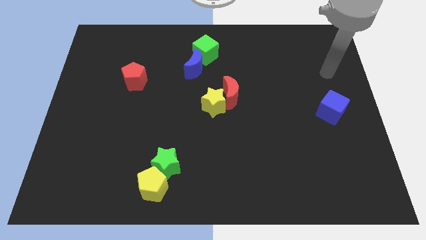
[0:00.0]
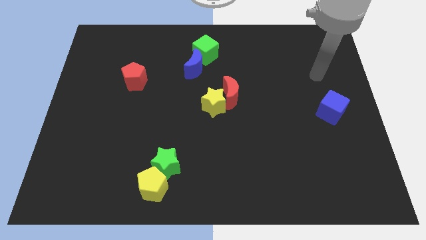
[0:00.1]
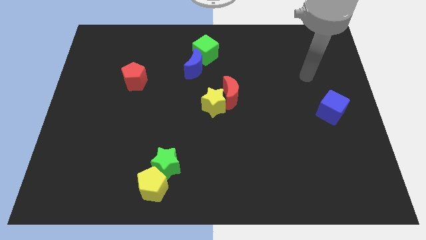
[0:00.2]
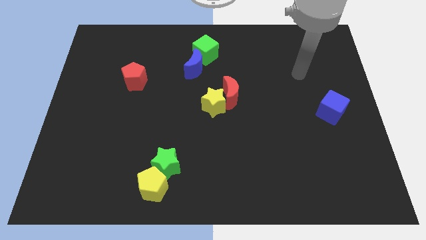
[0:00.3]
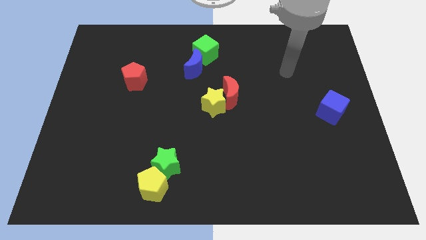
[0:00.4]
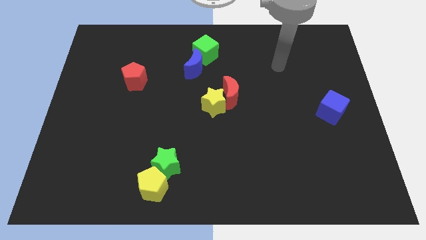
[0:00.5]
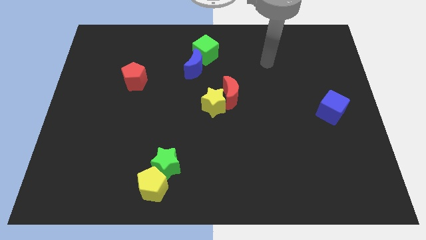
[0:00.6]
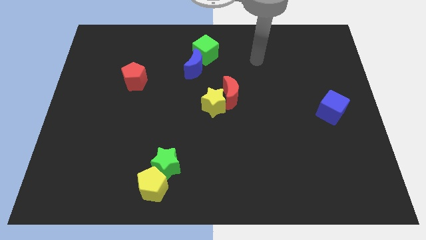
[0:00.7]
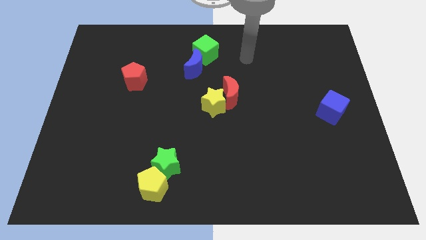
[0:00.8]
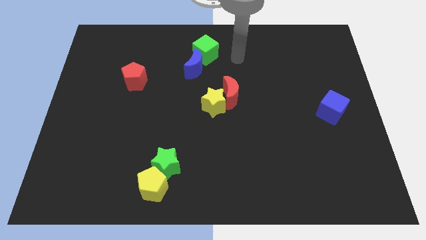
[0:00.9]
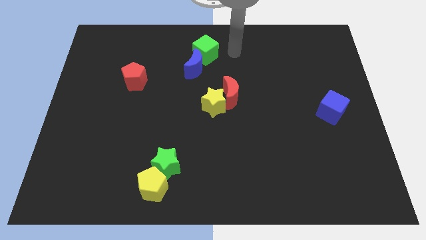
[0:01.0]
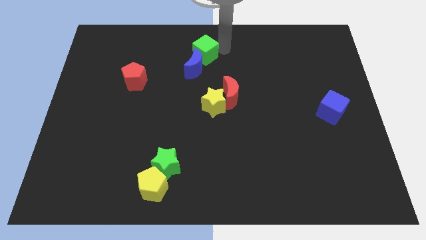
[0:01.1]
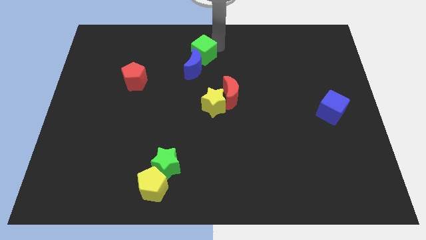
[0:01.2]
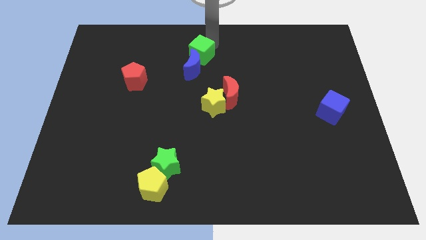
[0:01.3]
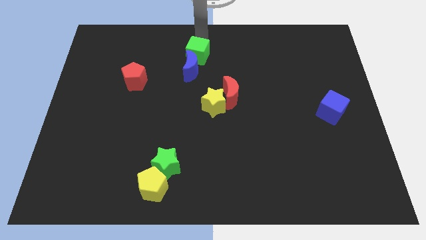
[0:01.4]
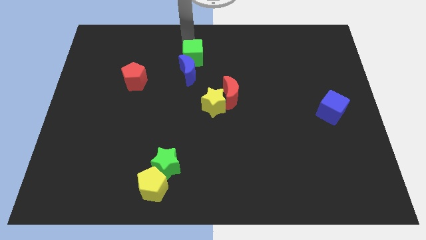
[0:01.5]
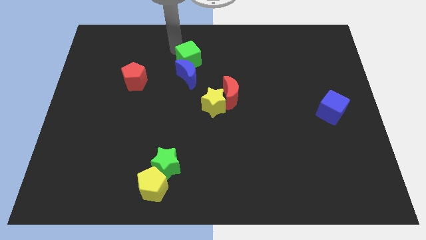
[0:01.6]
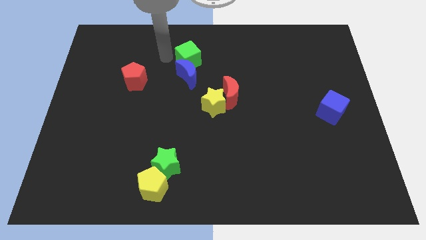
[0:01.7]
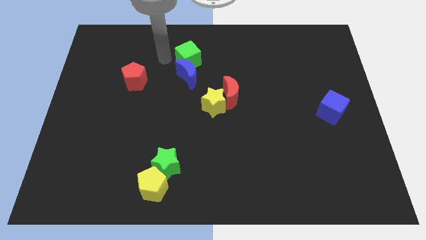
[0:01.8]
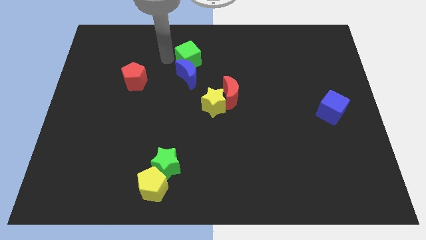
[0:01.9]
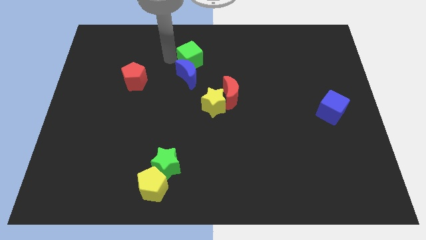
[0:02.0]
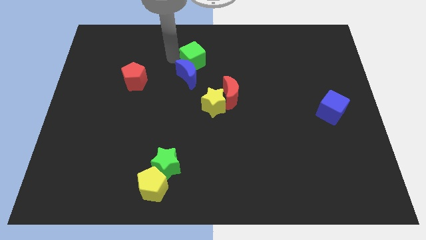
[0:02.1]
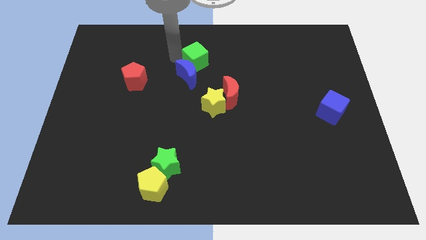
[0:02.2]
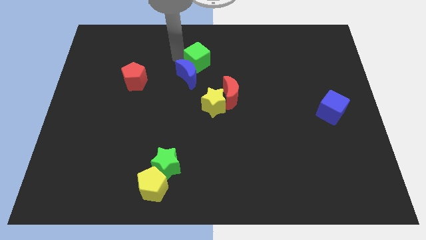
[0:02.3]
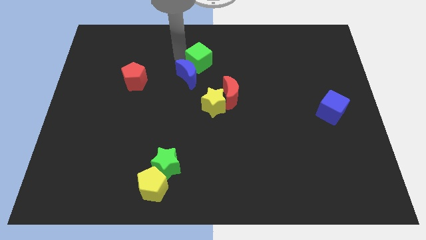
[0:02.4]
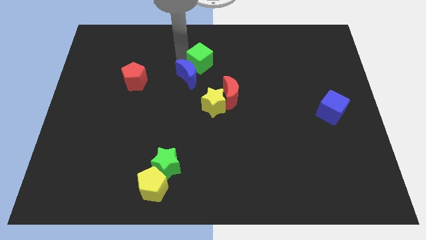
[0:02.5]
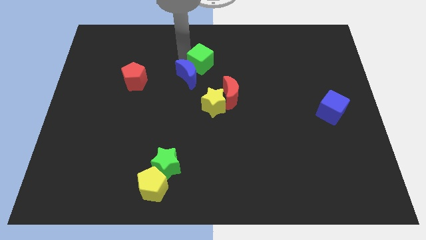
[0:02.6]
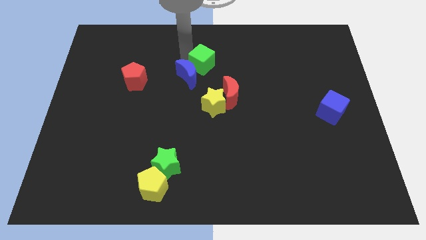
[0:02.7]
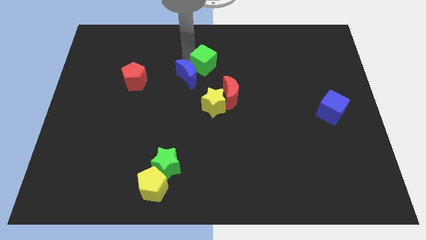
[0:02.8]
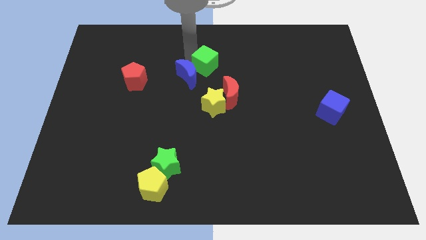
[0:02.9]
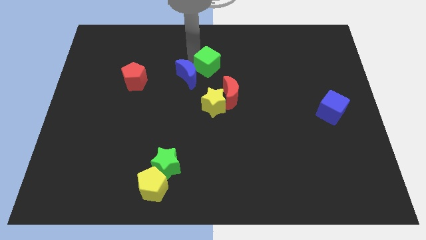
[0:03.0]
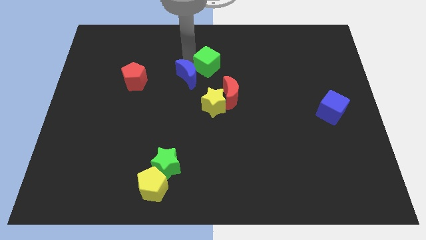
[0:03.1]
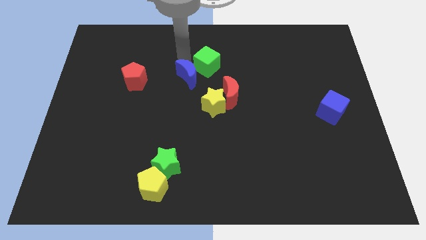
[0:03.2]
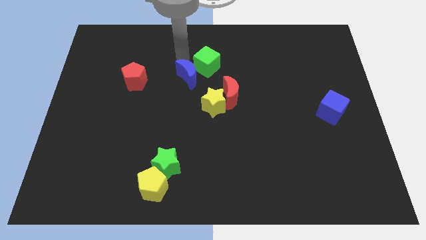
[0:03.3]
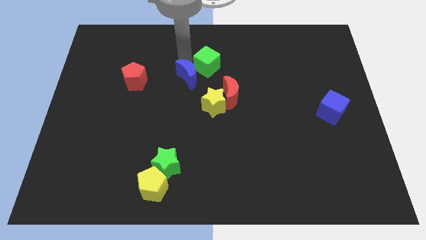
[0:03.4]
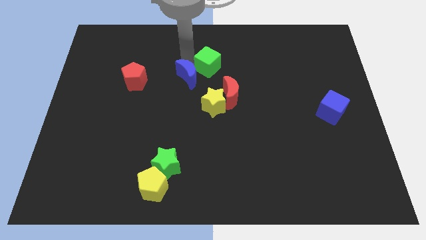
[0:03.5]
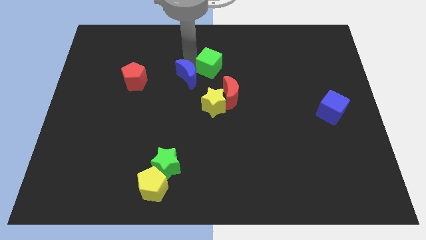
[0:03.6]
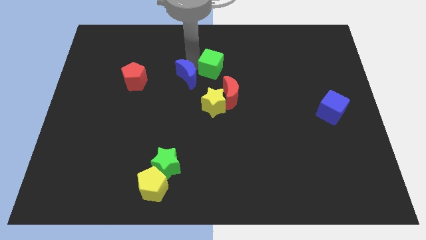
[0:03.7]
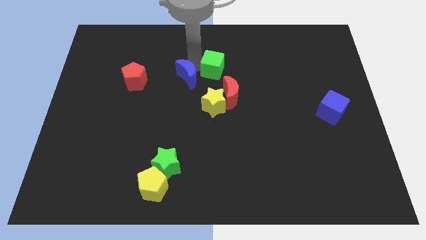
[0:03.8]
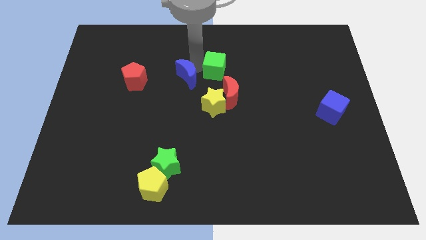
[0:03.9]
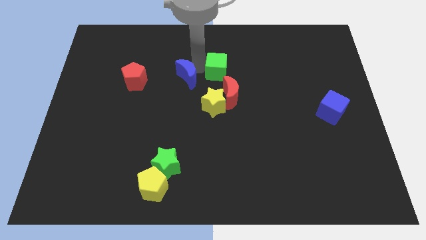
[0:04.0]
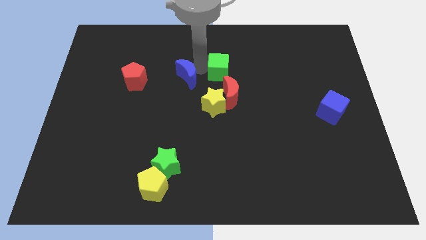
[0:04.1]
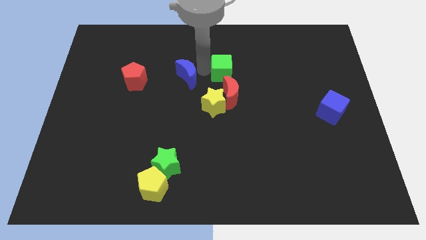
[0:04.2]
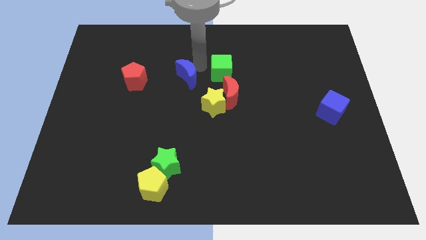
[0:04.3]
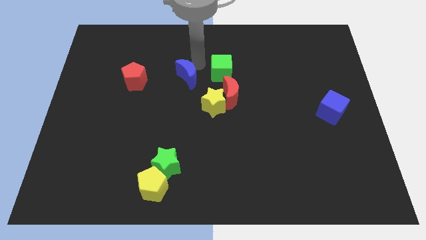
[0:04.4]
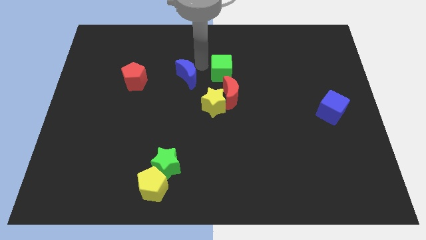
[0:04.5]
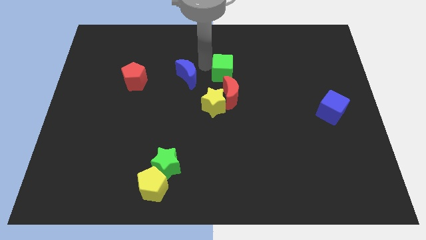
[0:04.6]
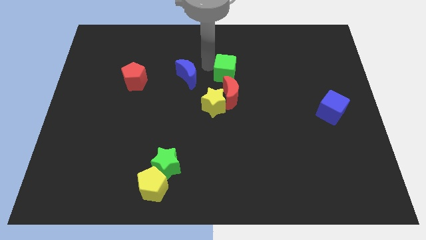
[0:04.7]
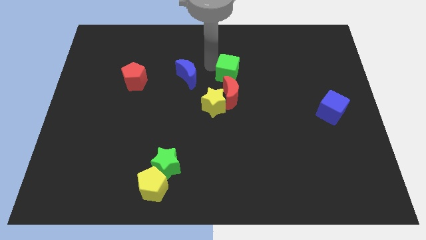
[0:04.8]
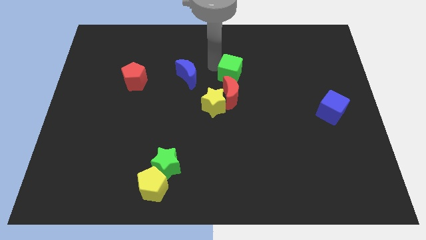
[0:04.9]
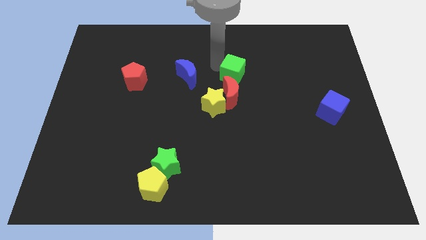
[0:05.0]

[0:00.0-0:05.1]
move the green cube diagonally up and to the right of the red moon

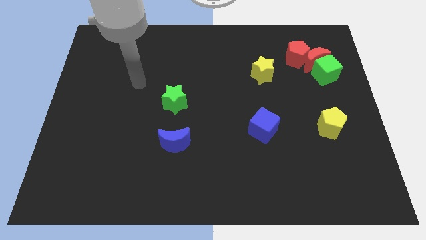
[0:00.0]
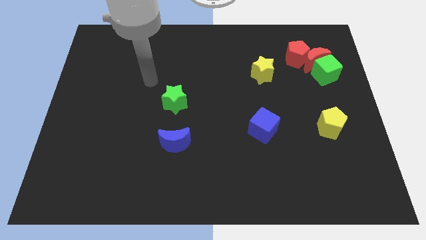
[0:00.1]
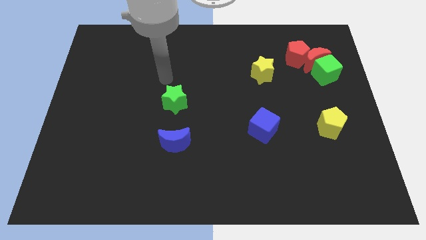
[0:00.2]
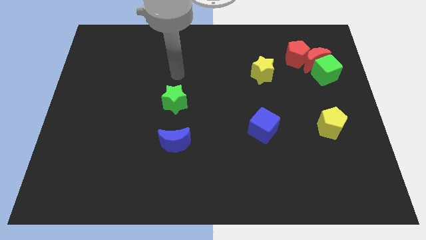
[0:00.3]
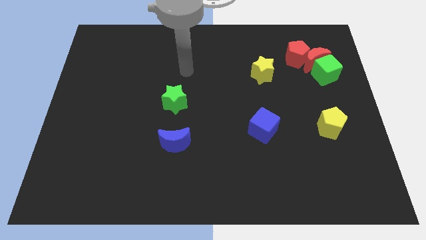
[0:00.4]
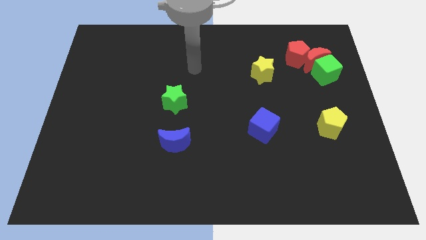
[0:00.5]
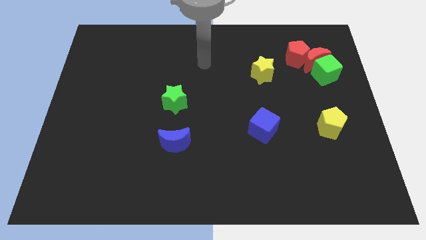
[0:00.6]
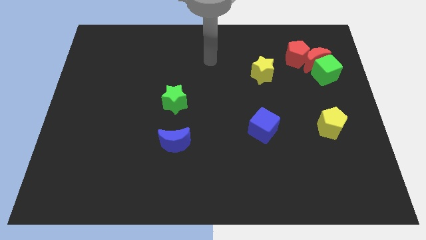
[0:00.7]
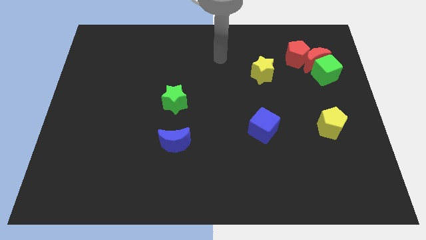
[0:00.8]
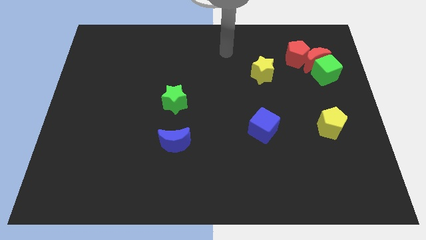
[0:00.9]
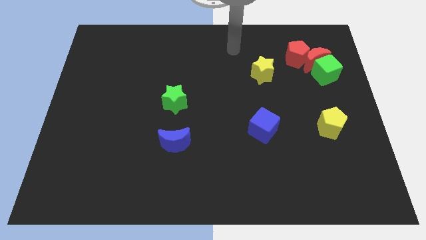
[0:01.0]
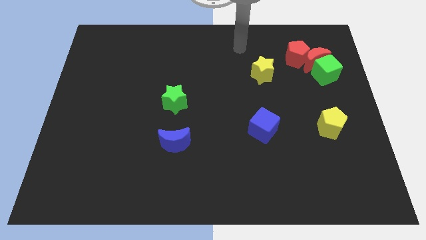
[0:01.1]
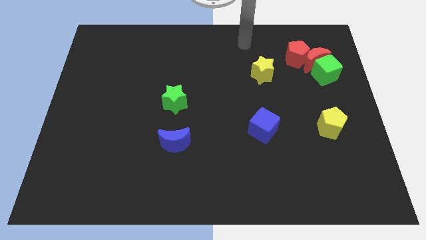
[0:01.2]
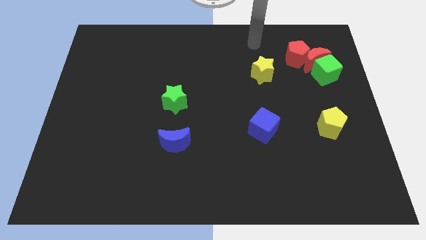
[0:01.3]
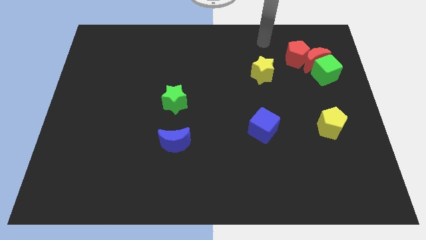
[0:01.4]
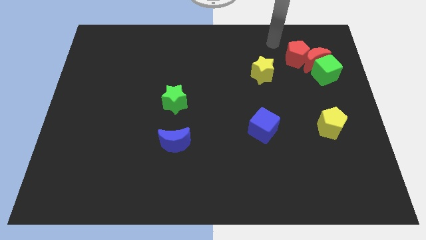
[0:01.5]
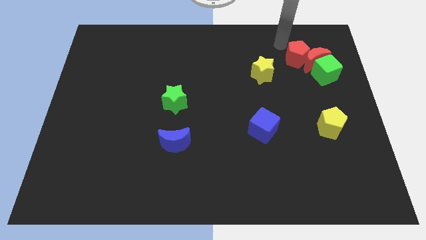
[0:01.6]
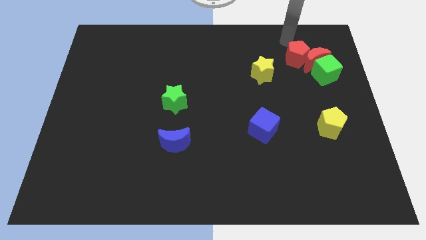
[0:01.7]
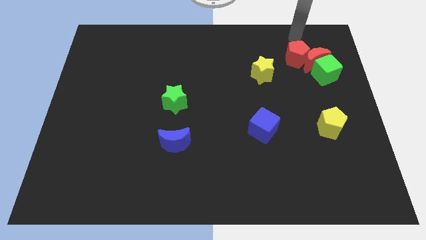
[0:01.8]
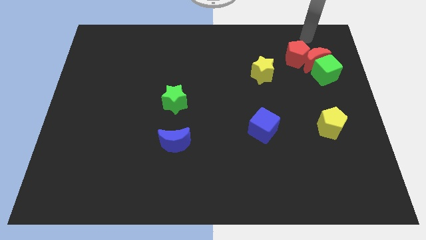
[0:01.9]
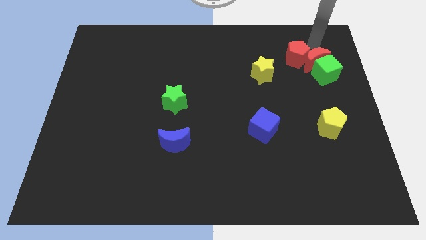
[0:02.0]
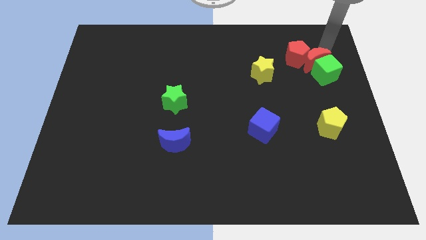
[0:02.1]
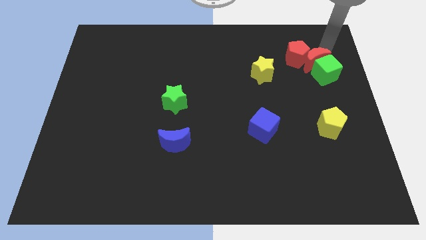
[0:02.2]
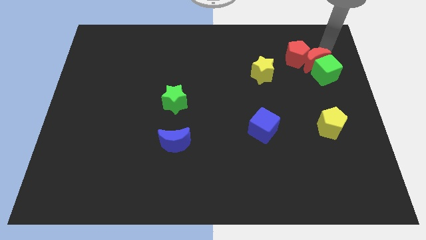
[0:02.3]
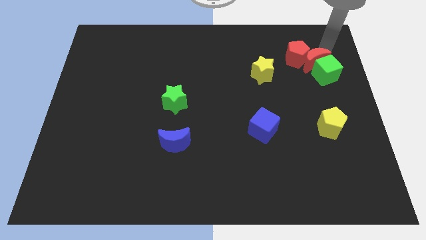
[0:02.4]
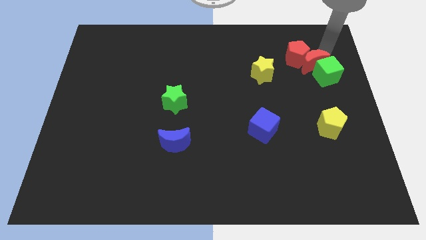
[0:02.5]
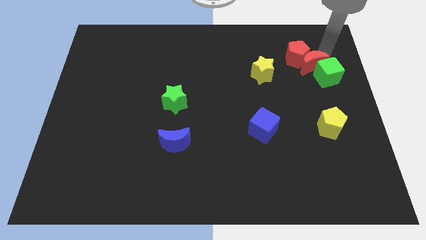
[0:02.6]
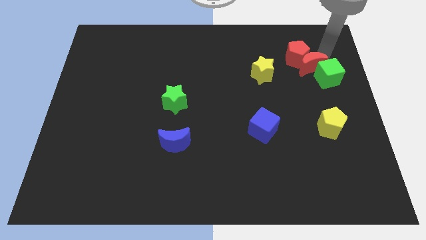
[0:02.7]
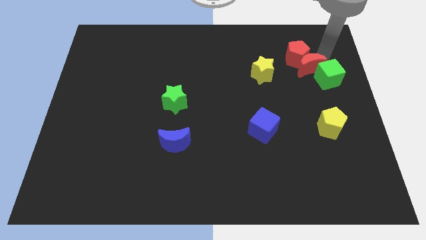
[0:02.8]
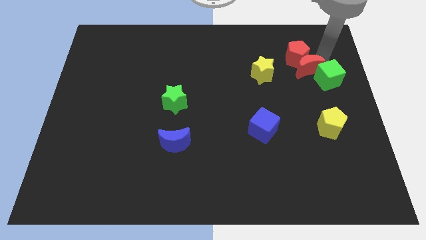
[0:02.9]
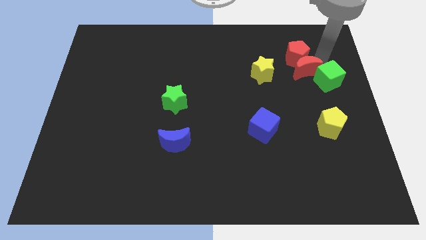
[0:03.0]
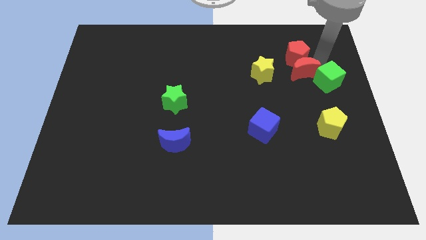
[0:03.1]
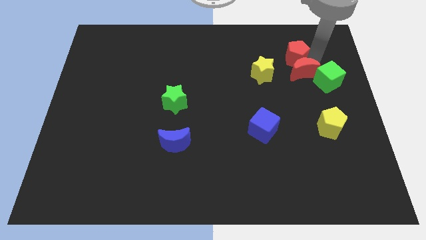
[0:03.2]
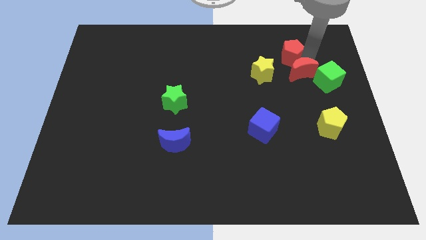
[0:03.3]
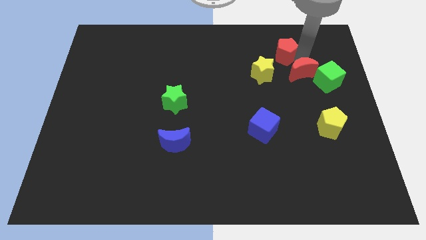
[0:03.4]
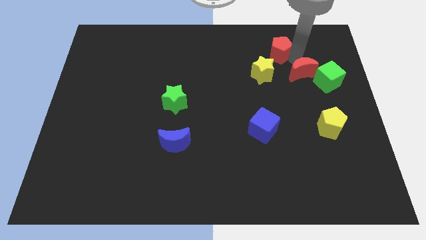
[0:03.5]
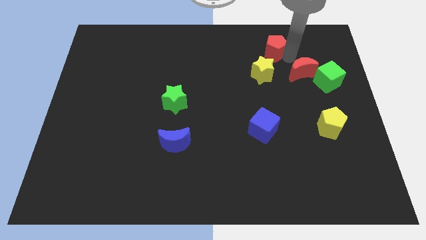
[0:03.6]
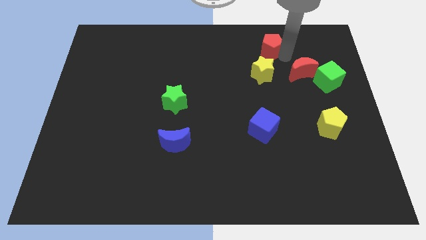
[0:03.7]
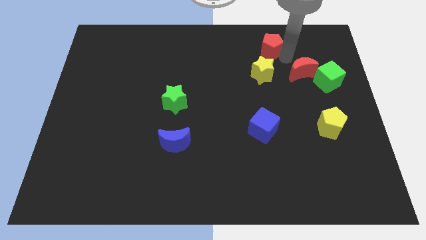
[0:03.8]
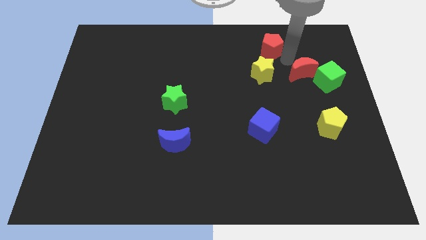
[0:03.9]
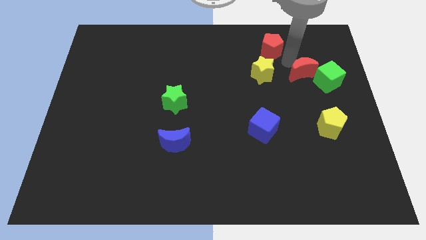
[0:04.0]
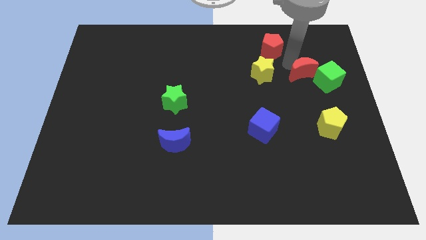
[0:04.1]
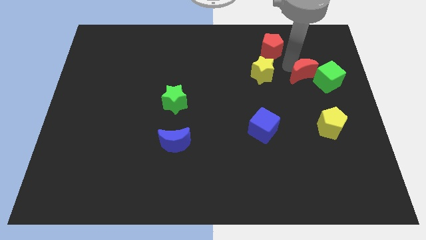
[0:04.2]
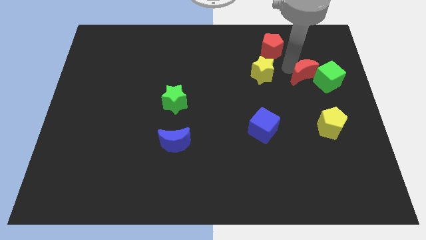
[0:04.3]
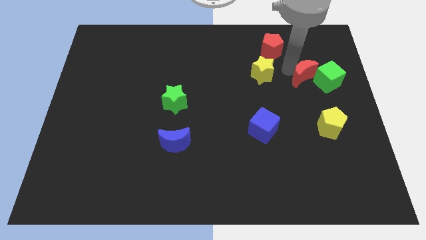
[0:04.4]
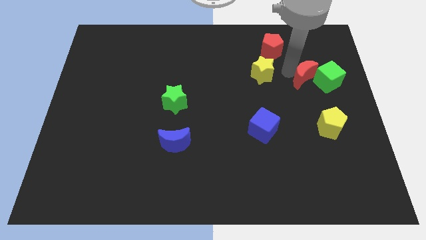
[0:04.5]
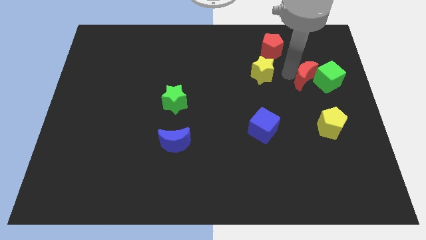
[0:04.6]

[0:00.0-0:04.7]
put the red moon to the top of the yellow pentagon
